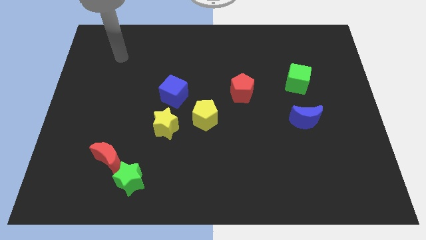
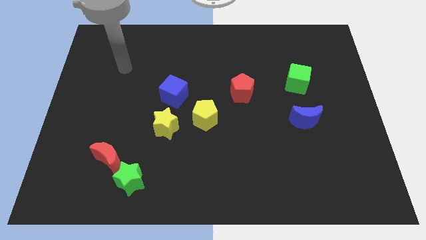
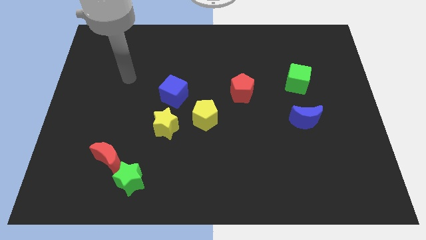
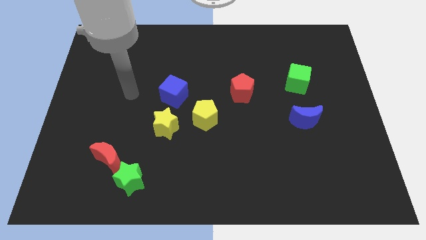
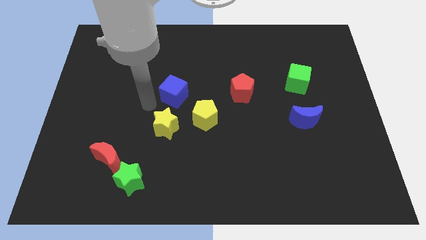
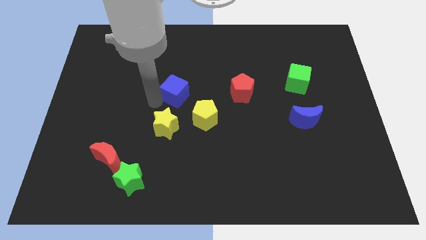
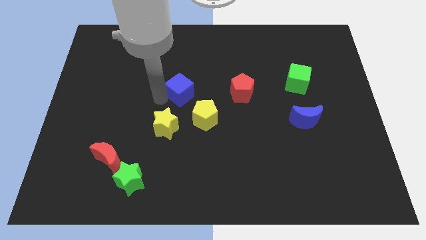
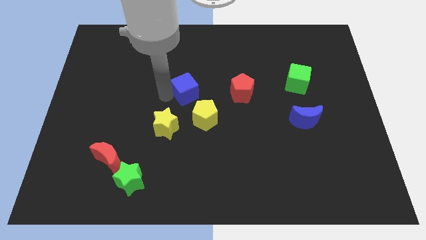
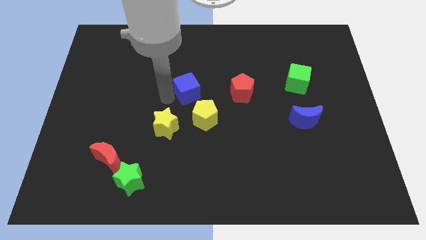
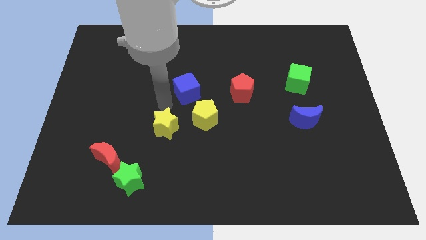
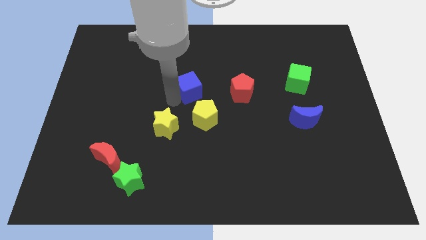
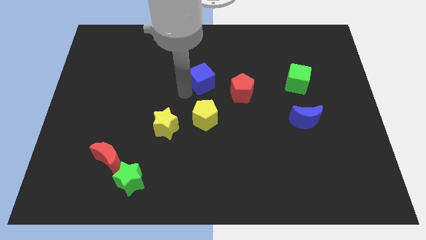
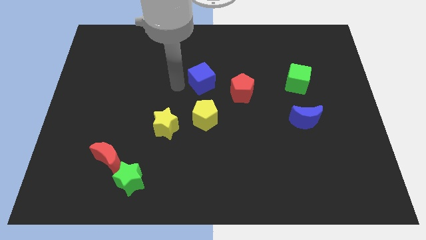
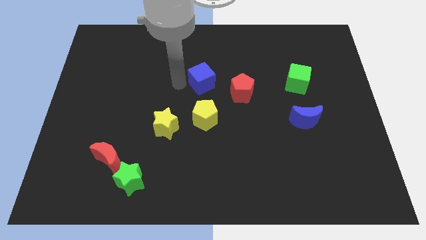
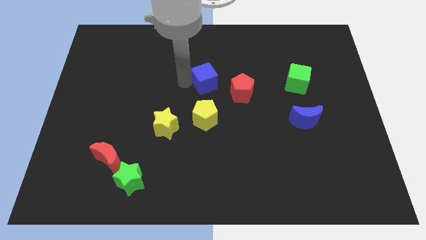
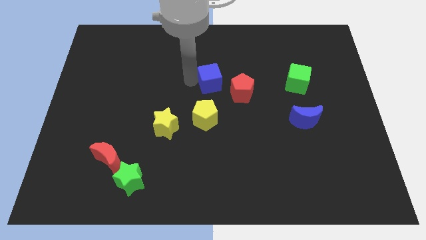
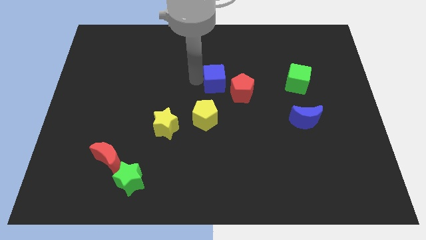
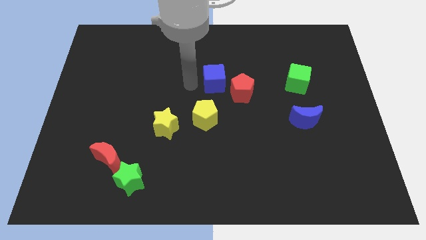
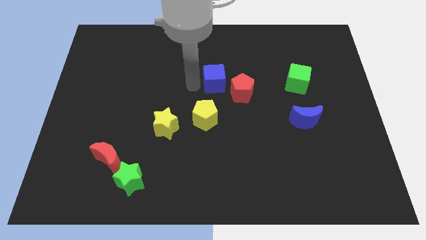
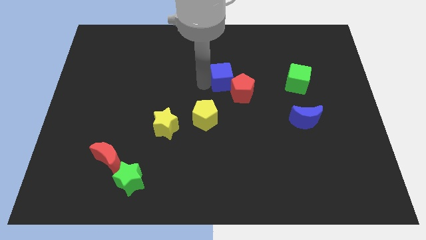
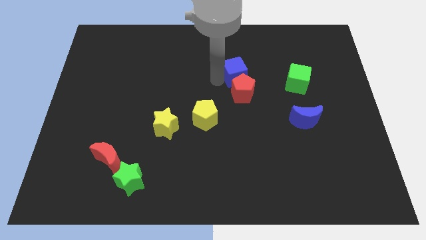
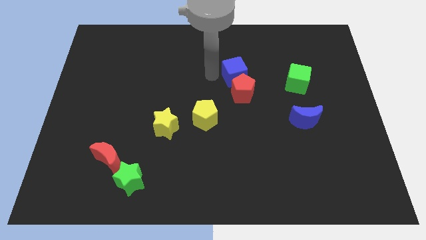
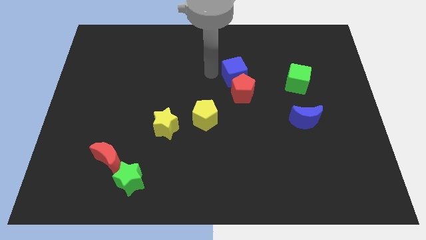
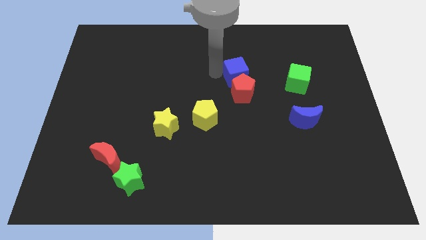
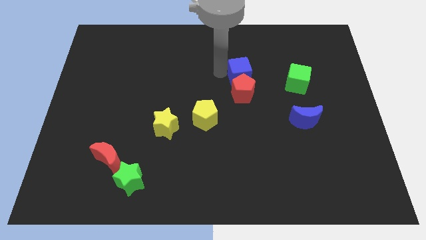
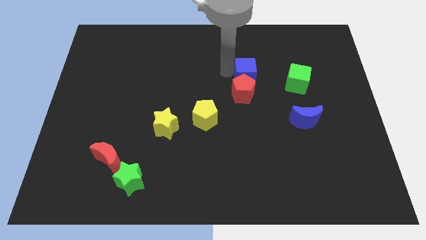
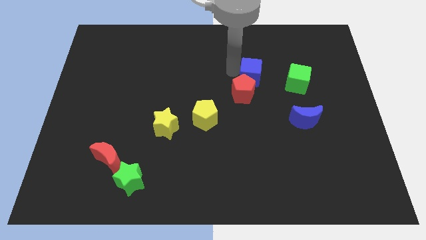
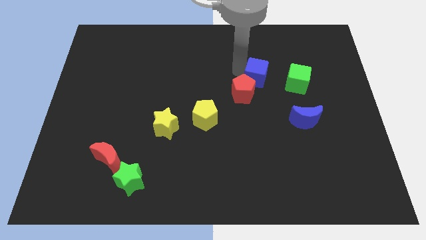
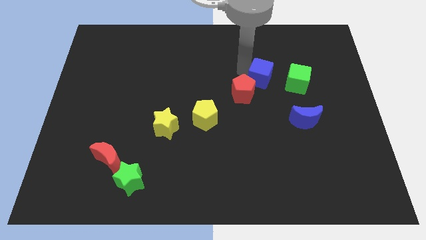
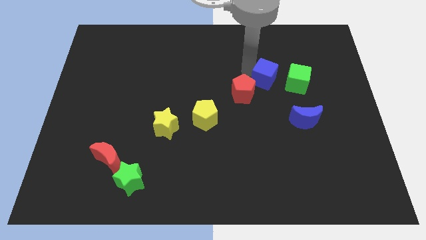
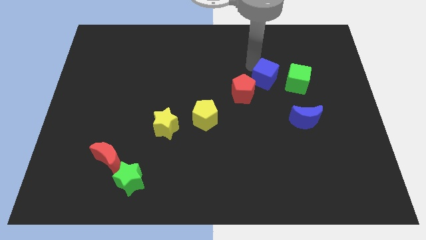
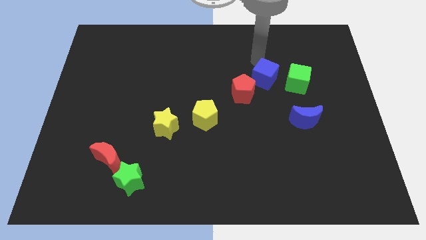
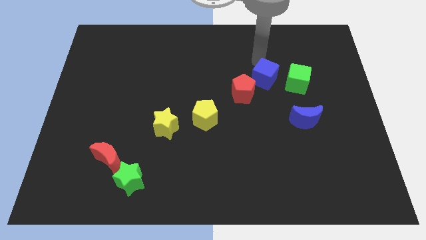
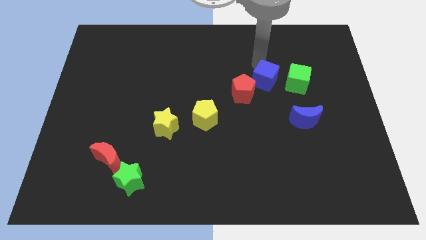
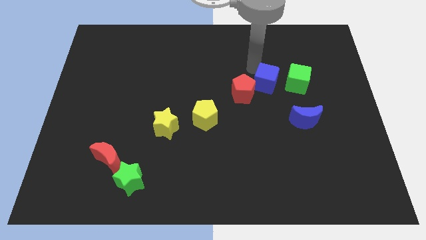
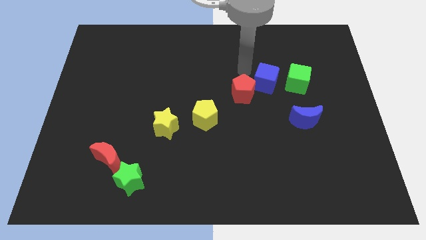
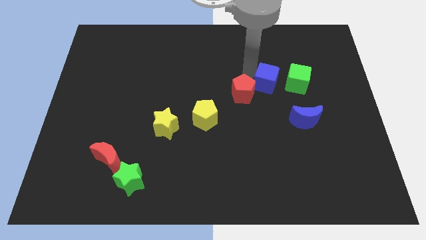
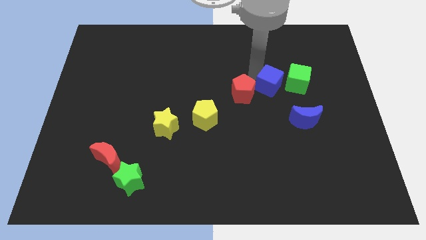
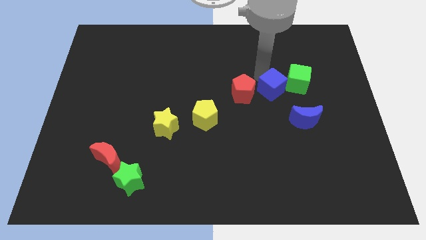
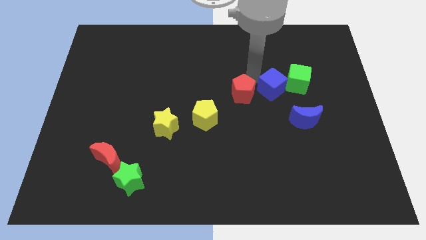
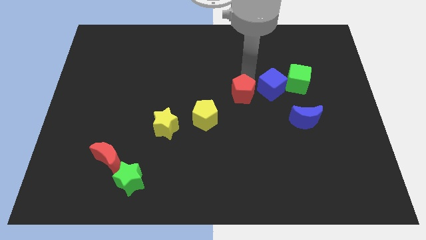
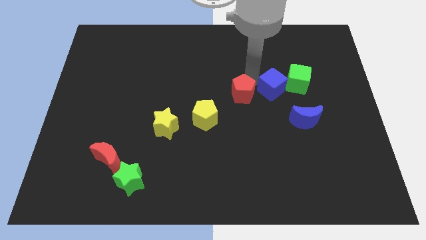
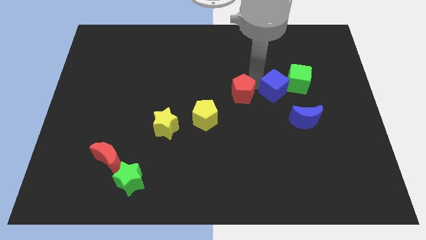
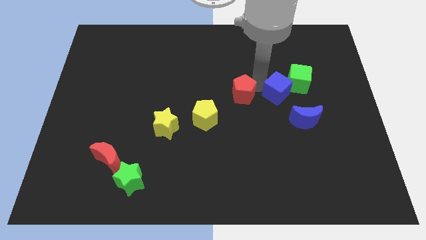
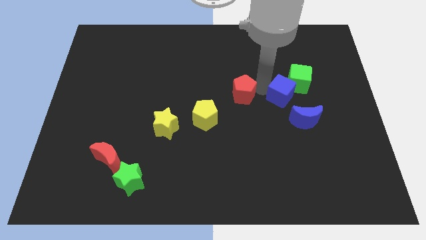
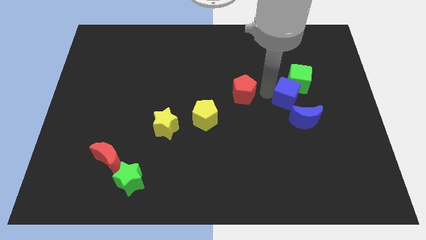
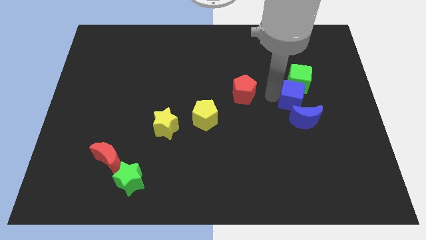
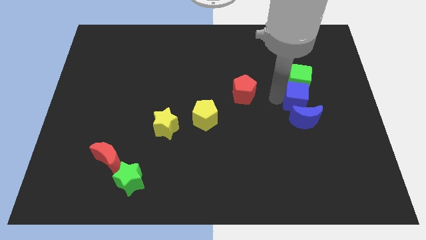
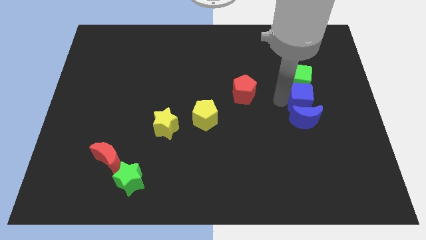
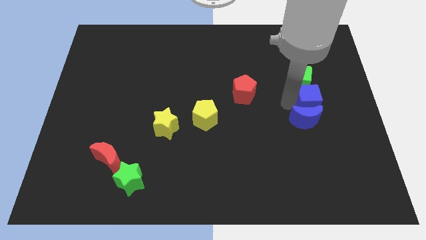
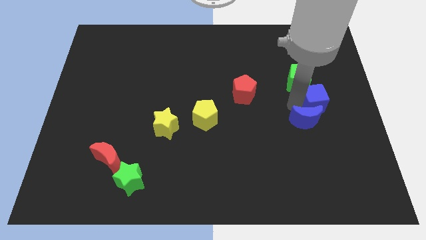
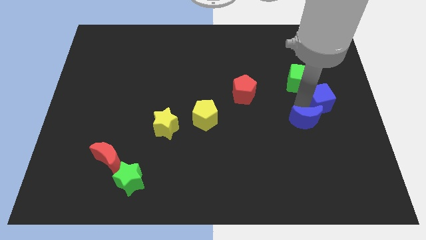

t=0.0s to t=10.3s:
push the blue cube to the center right
